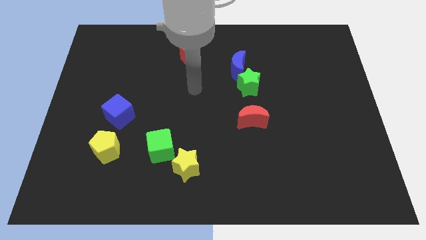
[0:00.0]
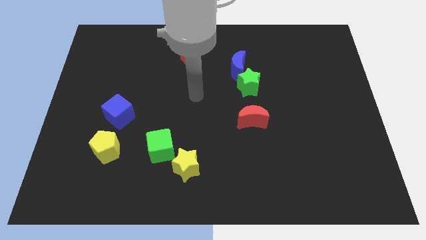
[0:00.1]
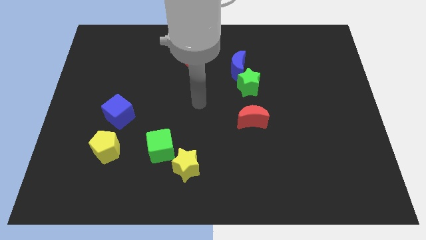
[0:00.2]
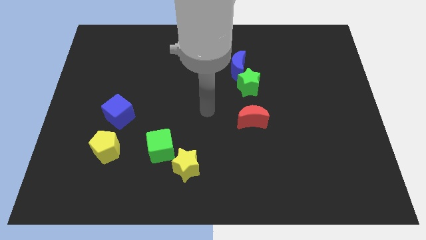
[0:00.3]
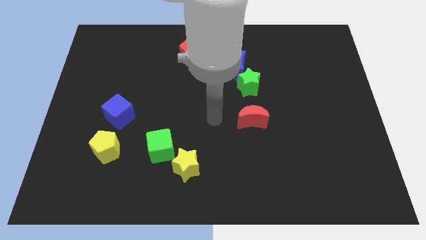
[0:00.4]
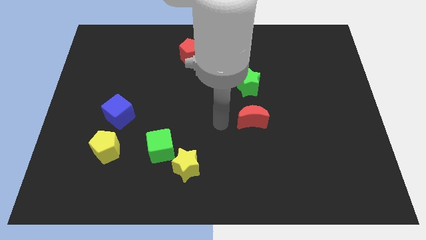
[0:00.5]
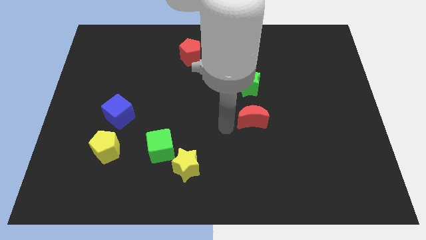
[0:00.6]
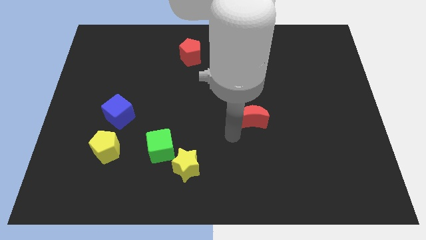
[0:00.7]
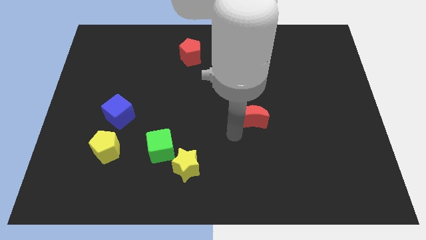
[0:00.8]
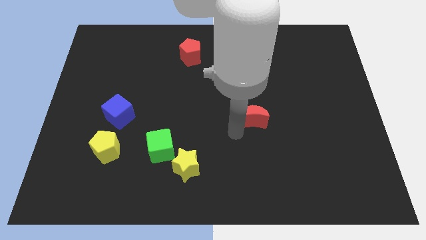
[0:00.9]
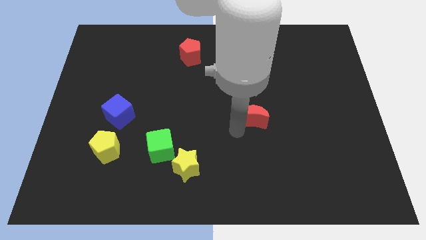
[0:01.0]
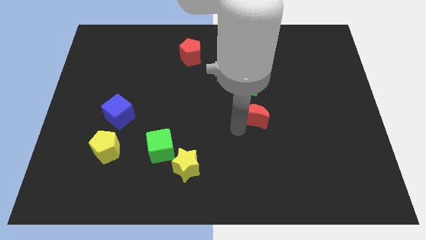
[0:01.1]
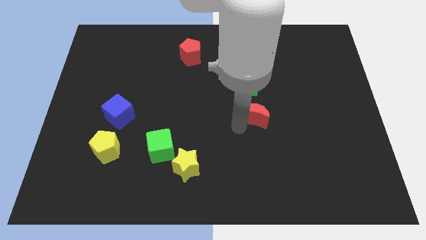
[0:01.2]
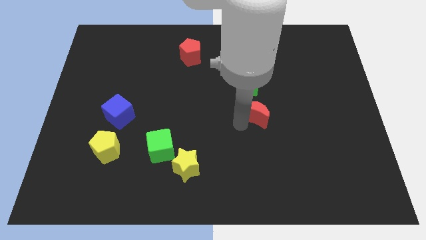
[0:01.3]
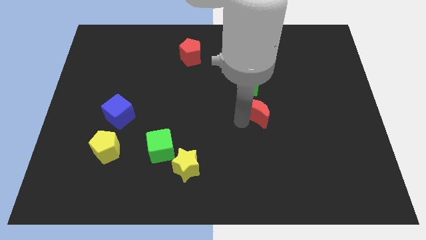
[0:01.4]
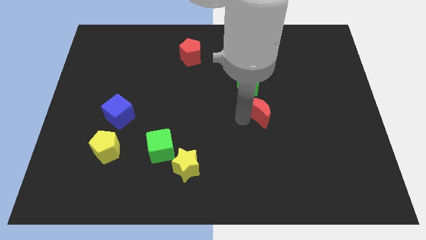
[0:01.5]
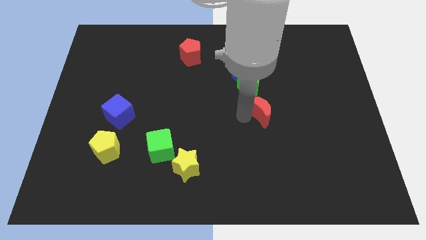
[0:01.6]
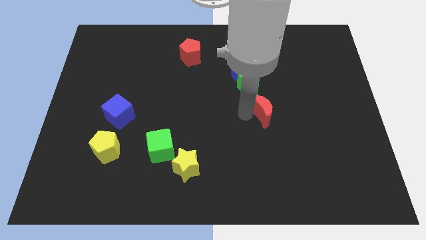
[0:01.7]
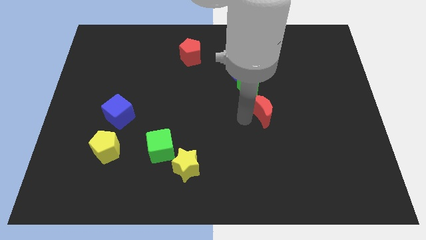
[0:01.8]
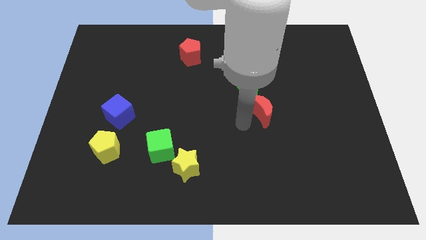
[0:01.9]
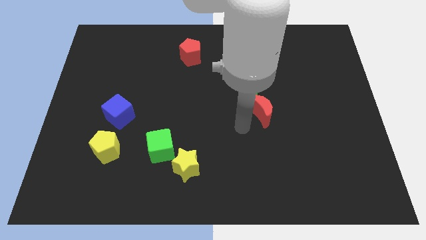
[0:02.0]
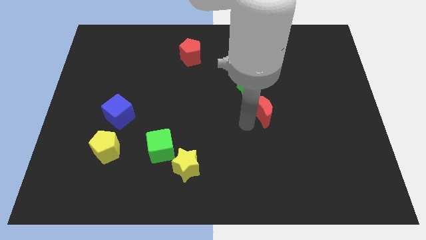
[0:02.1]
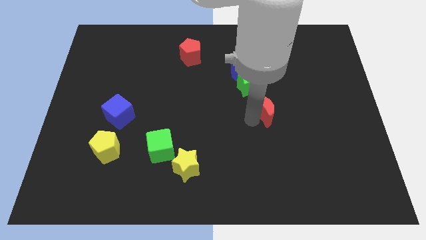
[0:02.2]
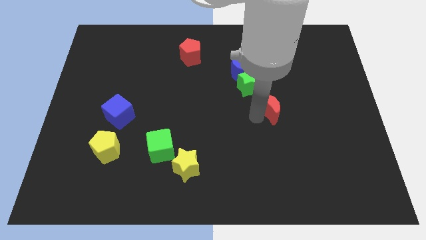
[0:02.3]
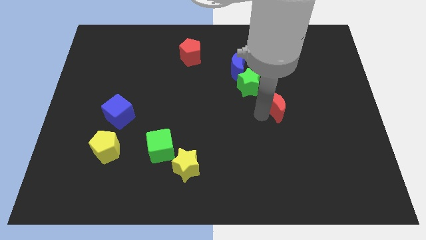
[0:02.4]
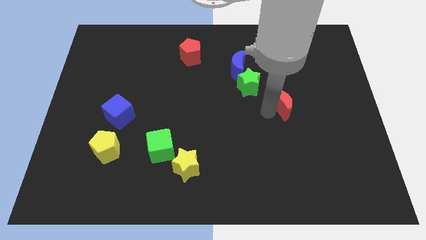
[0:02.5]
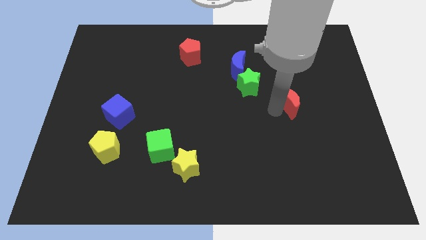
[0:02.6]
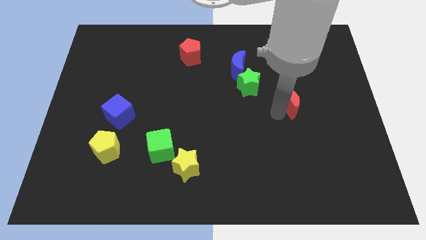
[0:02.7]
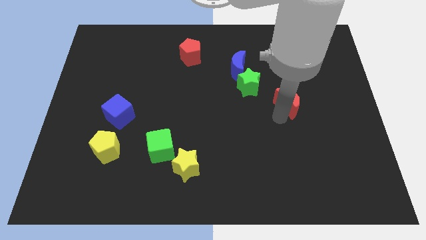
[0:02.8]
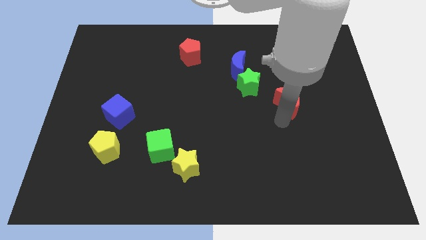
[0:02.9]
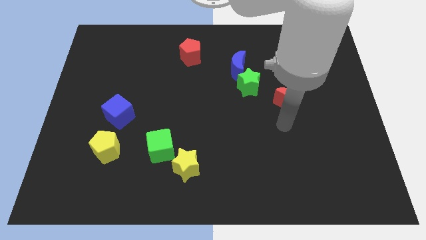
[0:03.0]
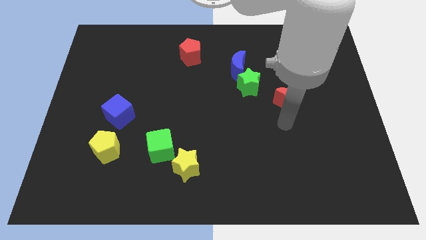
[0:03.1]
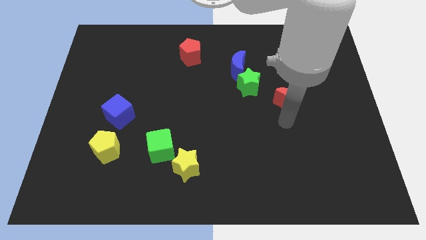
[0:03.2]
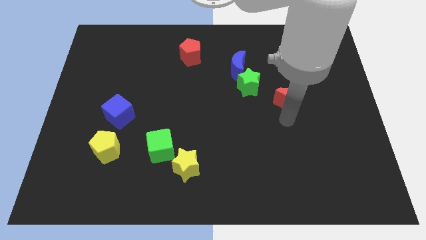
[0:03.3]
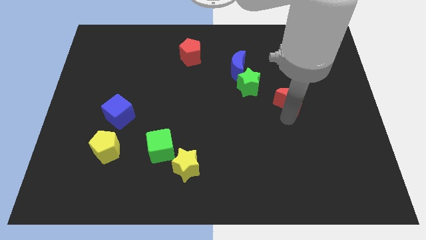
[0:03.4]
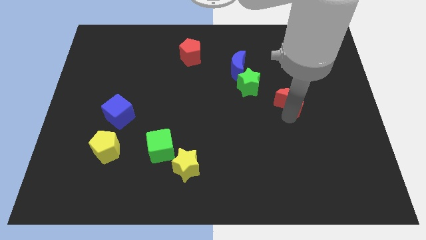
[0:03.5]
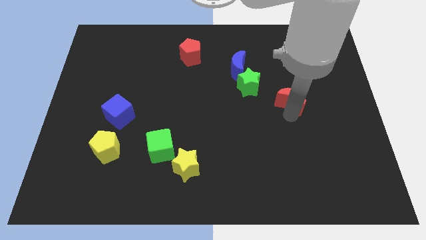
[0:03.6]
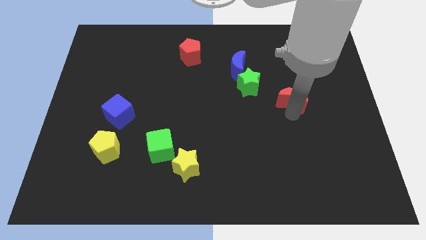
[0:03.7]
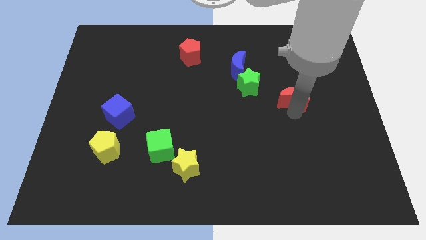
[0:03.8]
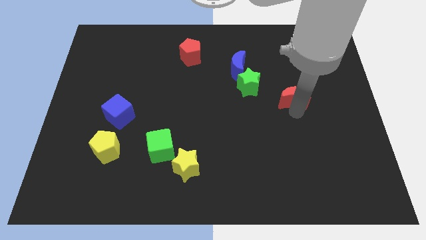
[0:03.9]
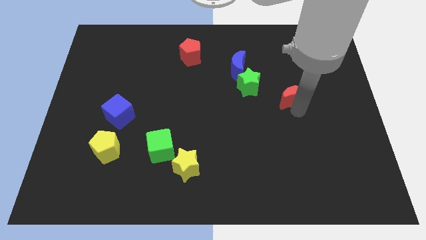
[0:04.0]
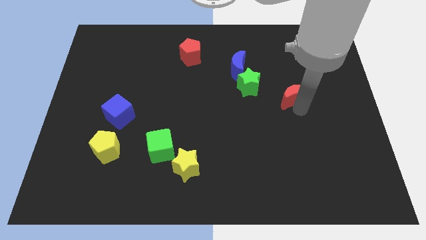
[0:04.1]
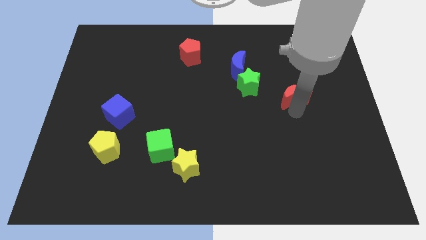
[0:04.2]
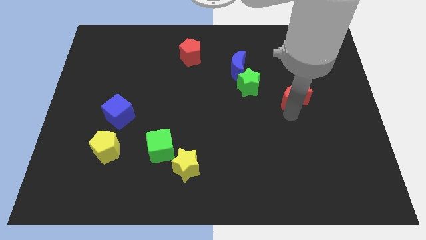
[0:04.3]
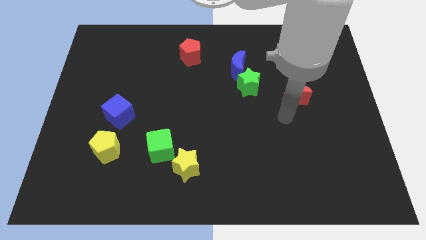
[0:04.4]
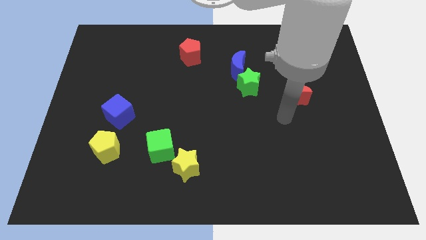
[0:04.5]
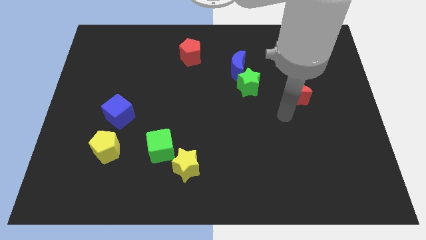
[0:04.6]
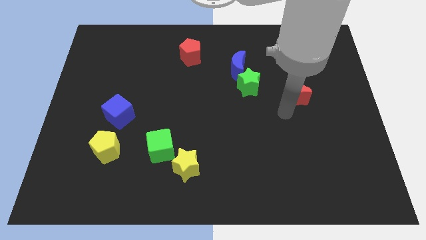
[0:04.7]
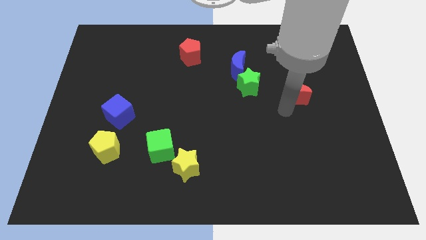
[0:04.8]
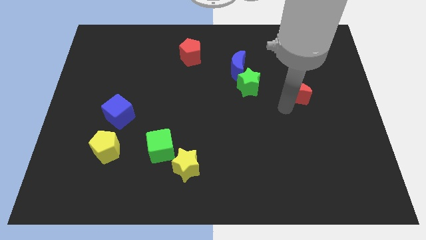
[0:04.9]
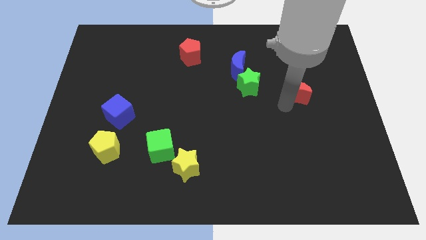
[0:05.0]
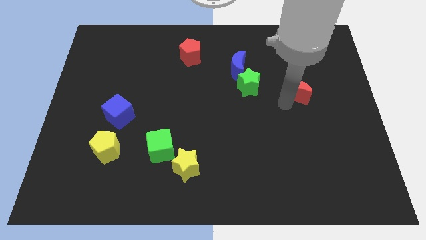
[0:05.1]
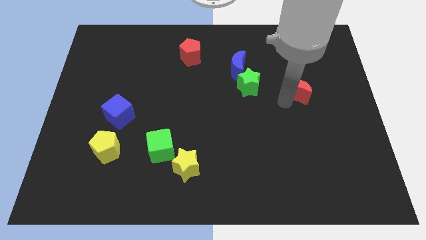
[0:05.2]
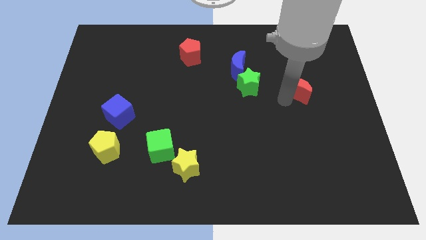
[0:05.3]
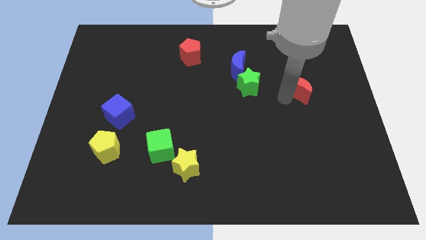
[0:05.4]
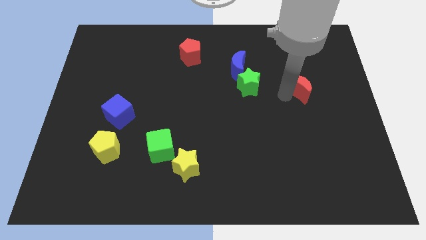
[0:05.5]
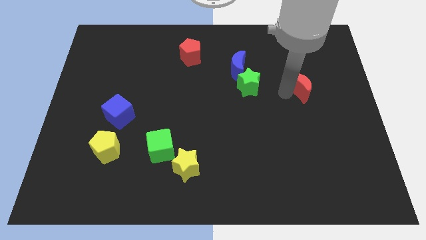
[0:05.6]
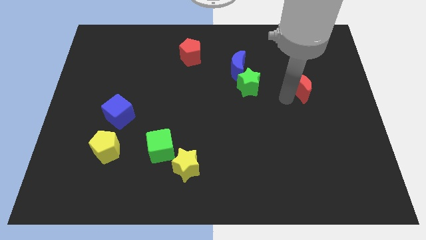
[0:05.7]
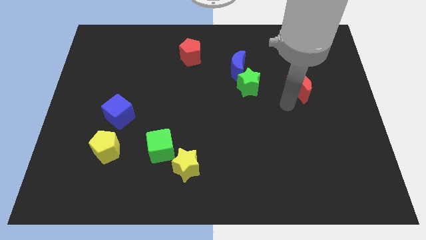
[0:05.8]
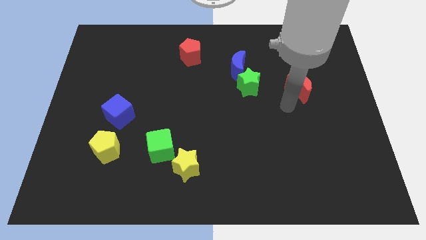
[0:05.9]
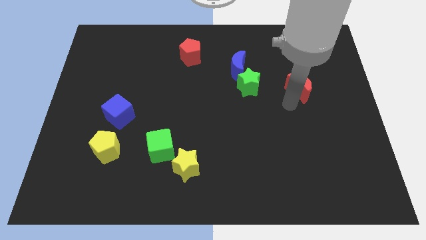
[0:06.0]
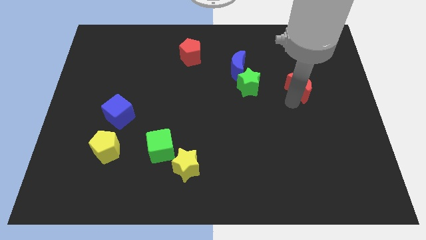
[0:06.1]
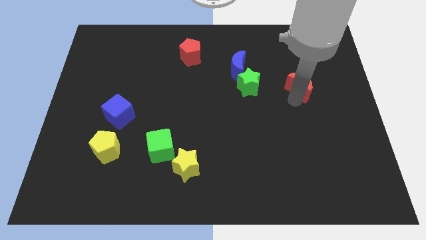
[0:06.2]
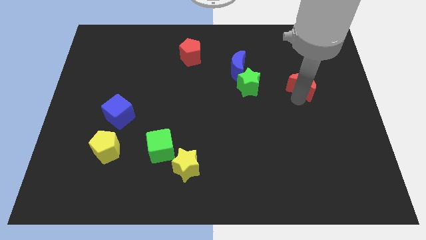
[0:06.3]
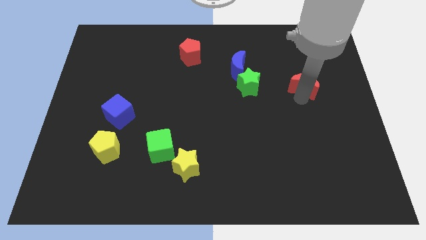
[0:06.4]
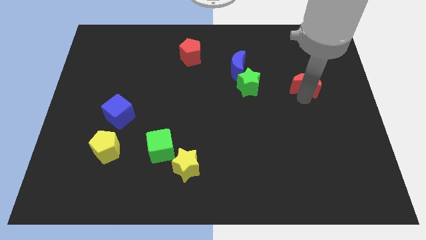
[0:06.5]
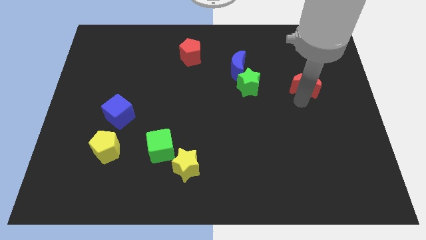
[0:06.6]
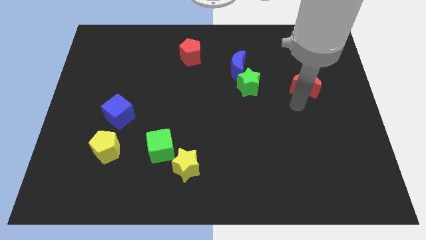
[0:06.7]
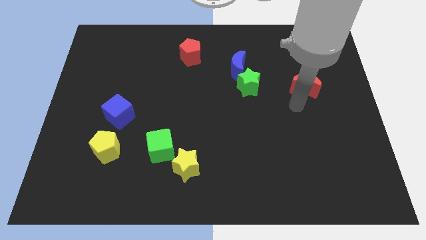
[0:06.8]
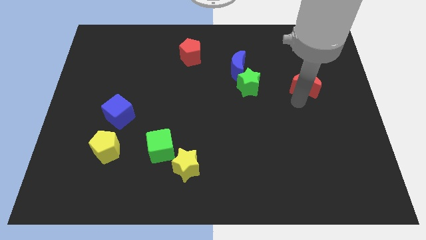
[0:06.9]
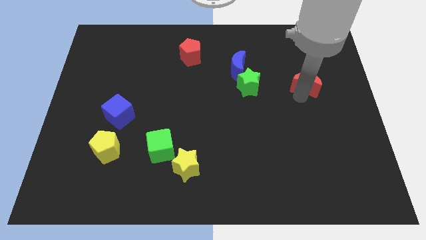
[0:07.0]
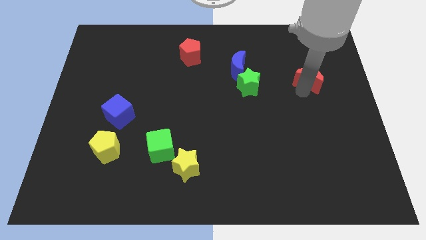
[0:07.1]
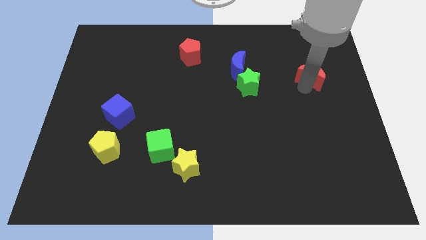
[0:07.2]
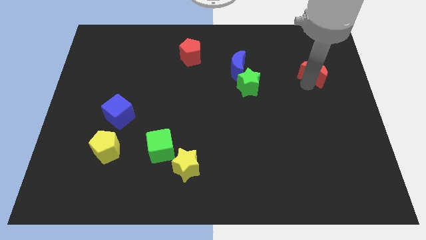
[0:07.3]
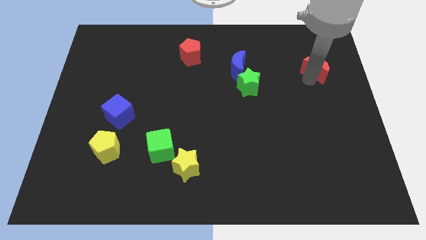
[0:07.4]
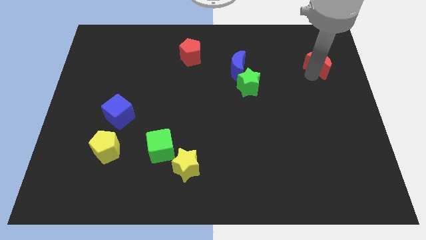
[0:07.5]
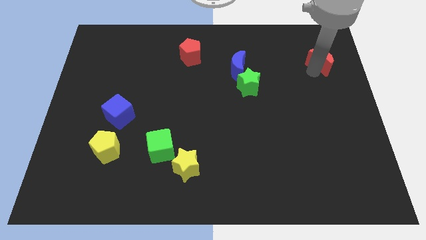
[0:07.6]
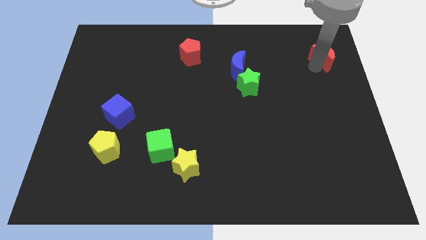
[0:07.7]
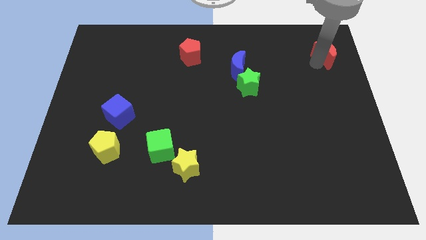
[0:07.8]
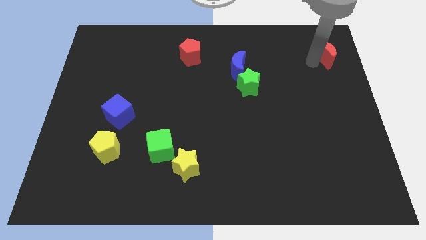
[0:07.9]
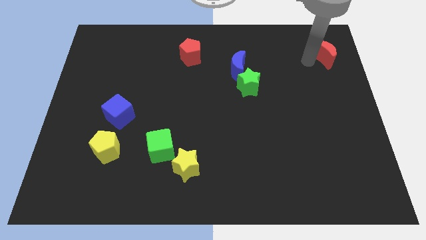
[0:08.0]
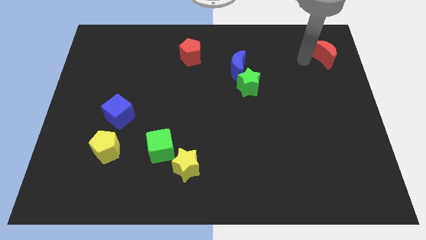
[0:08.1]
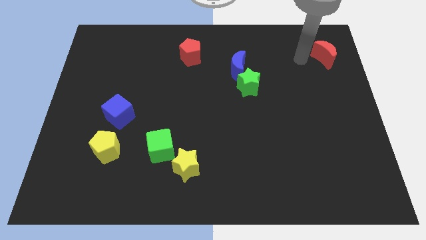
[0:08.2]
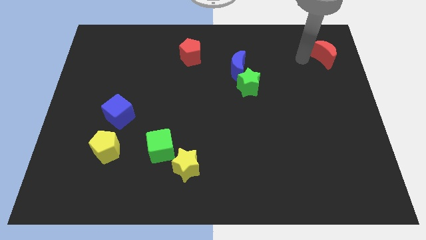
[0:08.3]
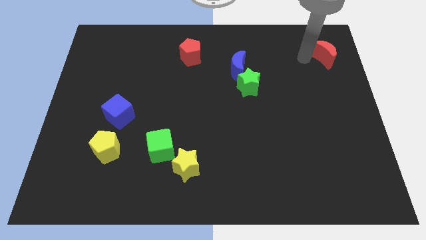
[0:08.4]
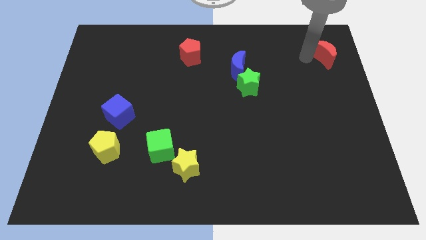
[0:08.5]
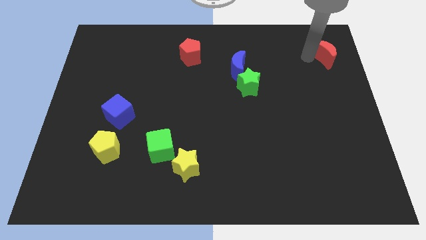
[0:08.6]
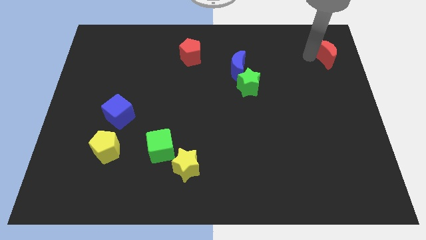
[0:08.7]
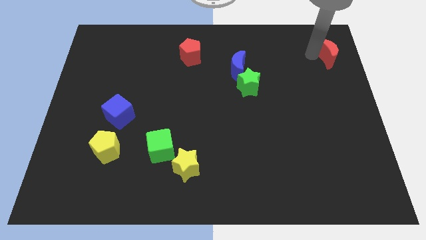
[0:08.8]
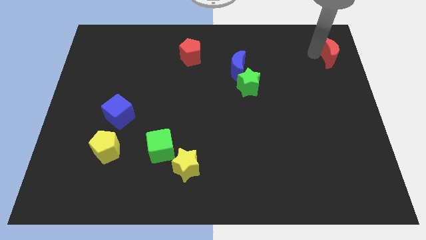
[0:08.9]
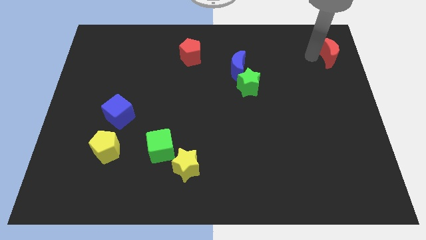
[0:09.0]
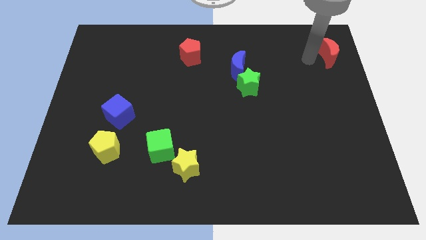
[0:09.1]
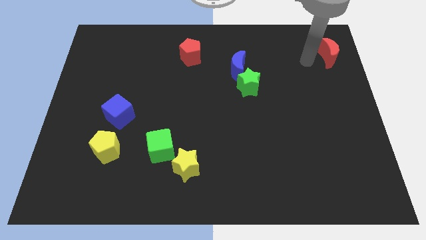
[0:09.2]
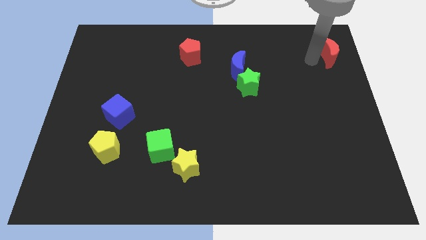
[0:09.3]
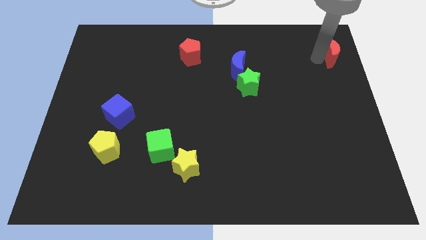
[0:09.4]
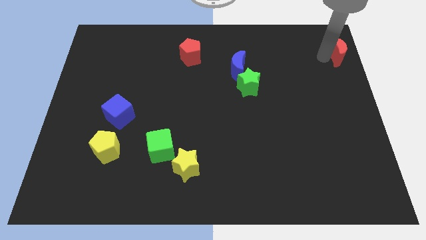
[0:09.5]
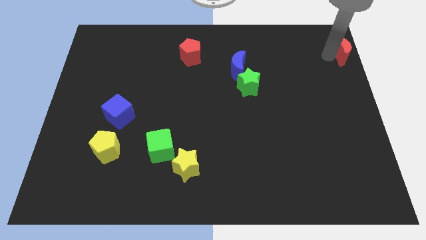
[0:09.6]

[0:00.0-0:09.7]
push the red moon to the upper right corner
